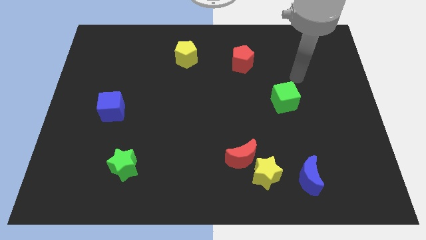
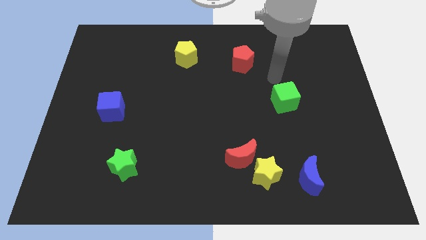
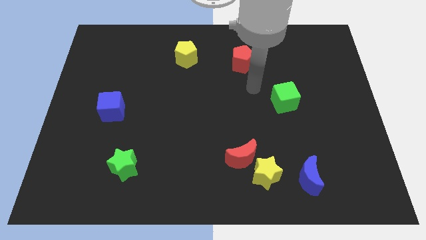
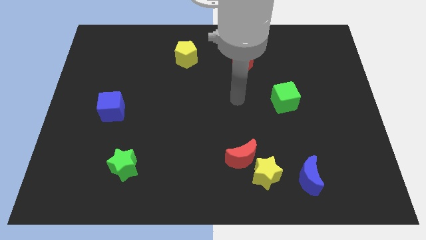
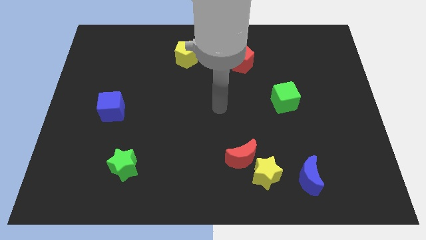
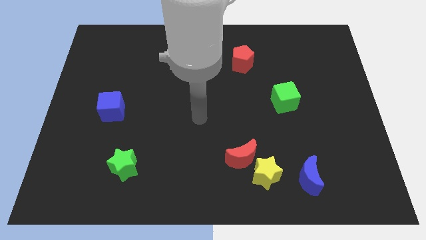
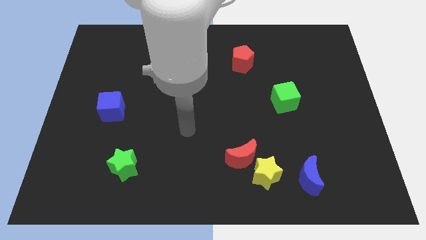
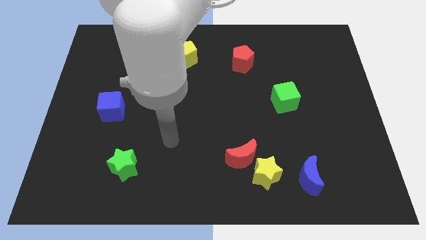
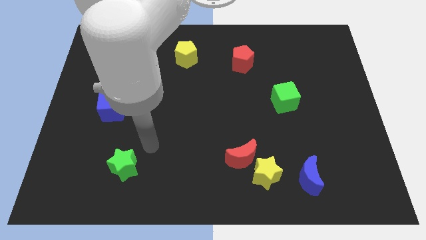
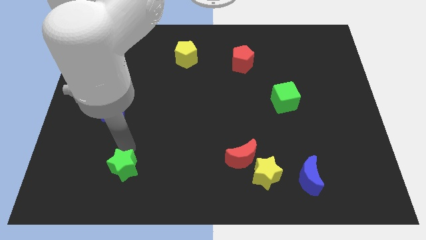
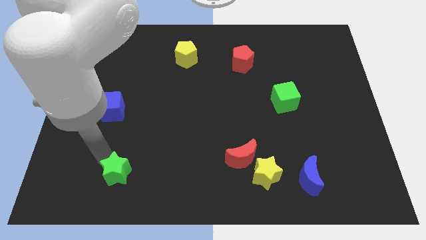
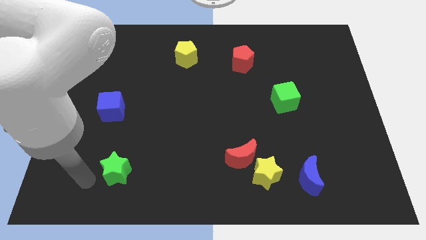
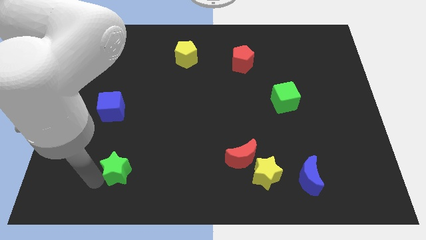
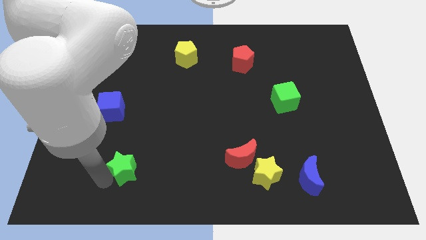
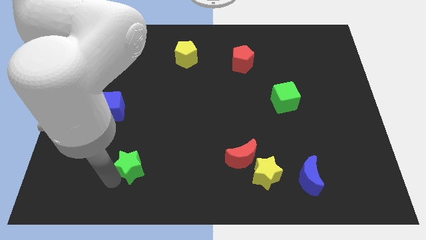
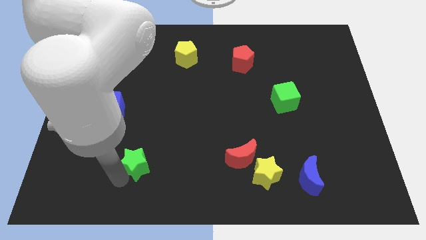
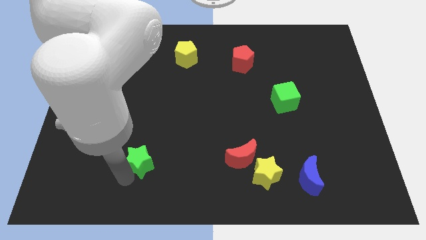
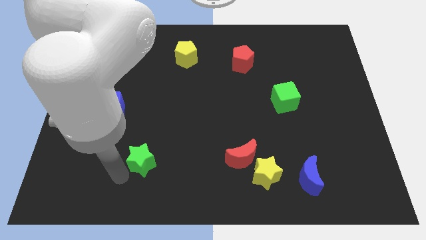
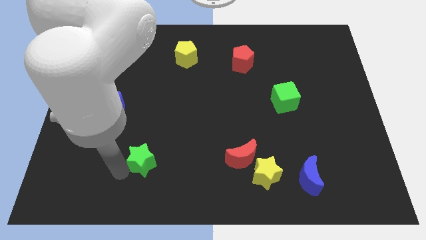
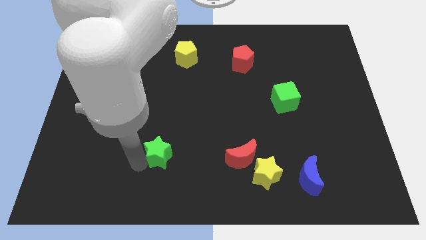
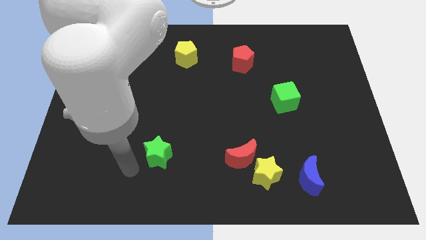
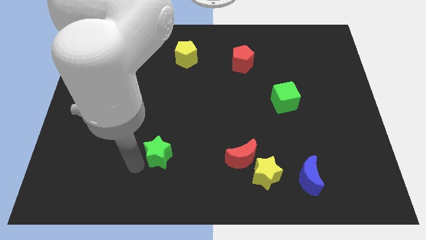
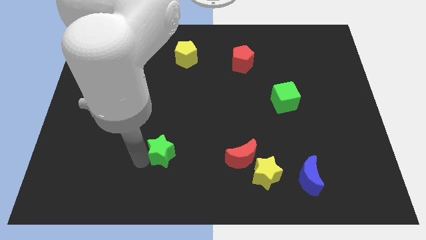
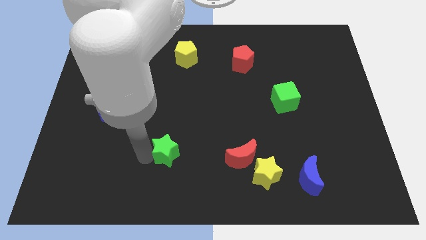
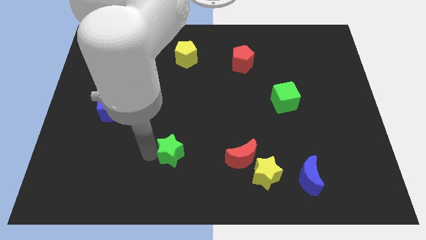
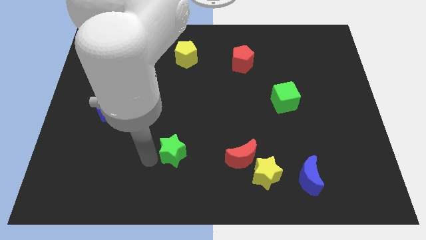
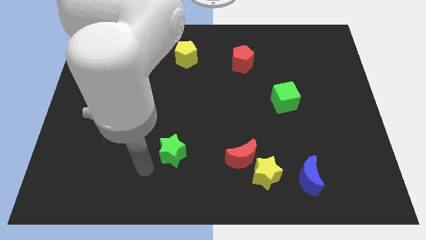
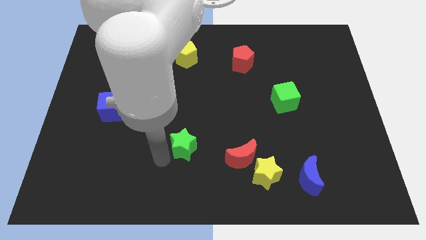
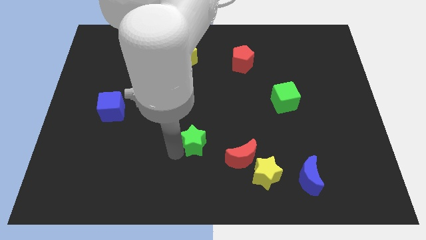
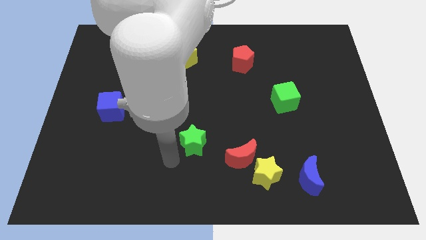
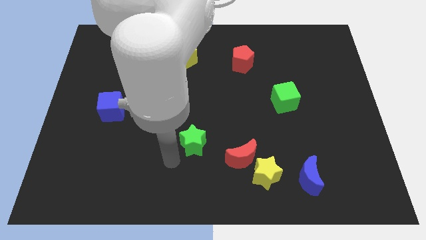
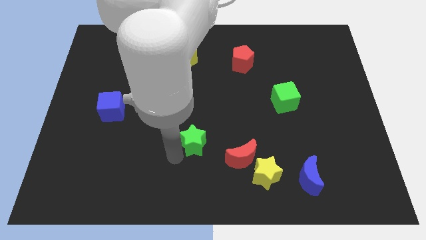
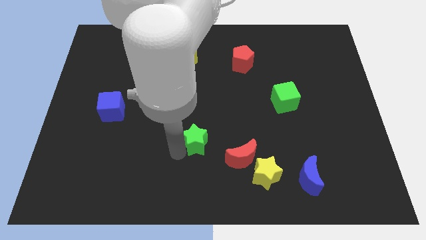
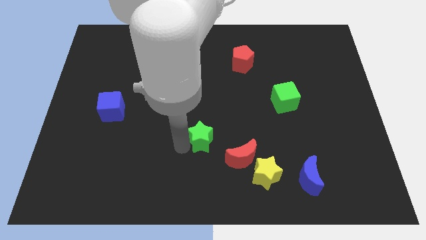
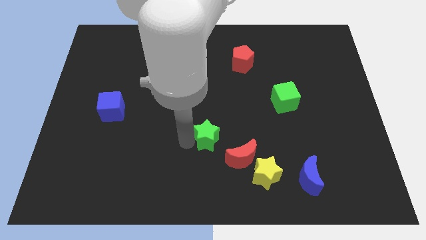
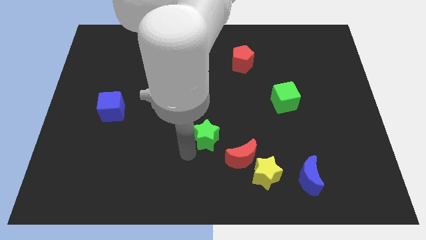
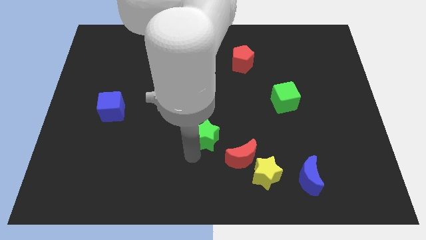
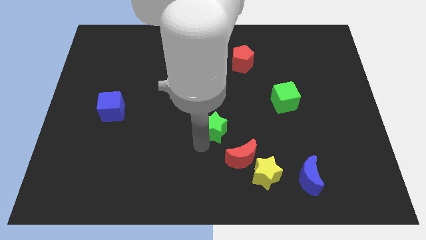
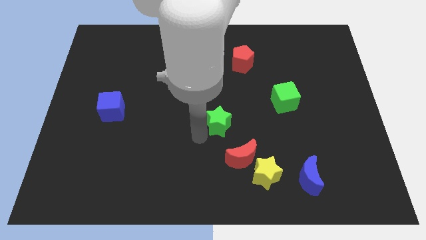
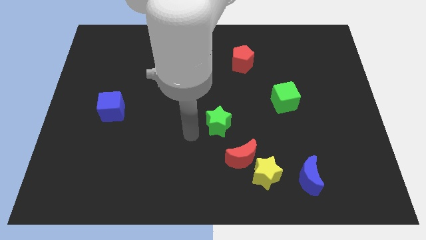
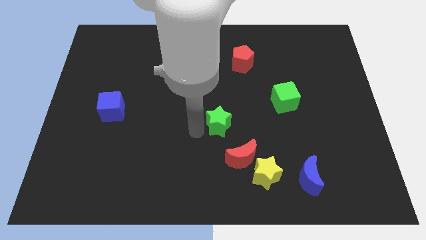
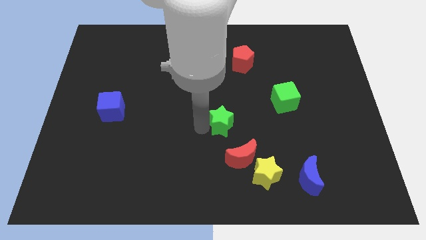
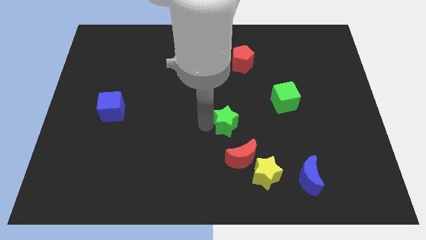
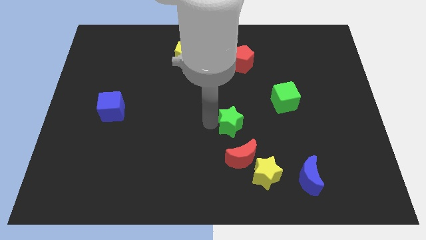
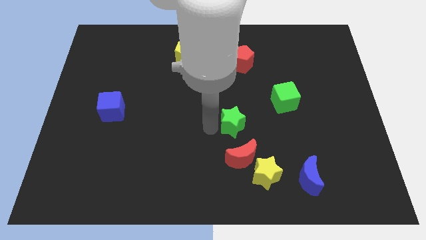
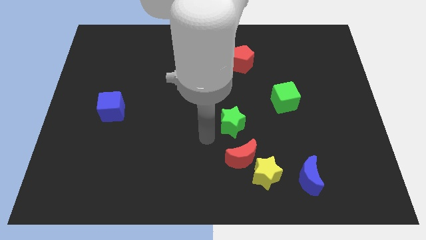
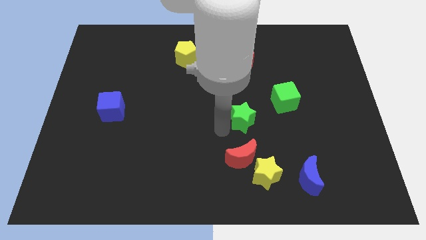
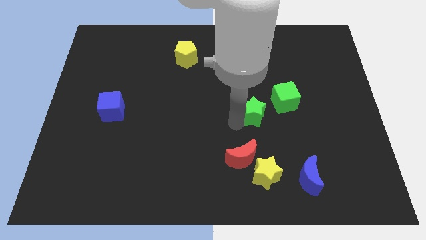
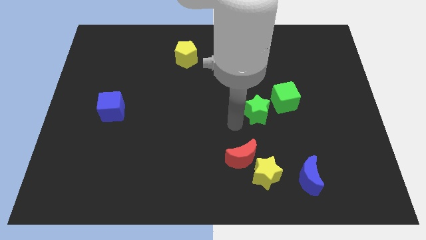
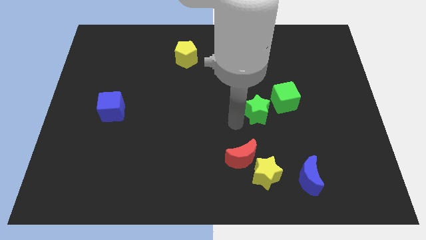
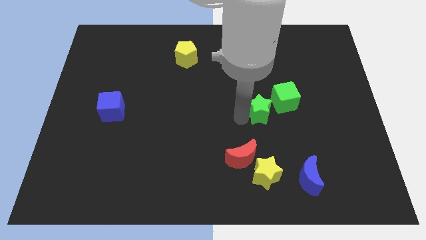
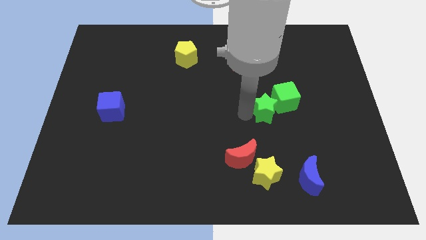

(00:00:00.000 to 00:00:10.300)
move the green star towards the green cube

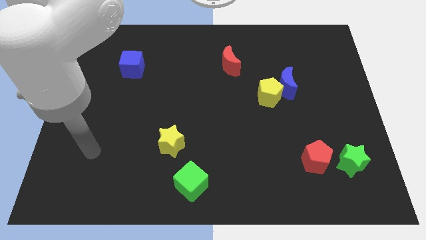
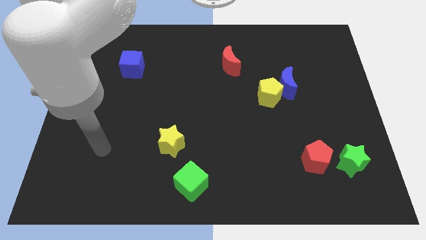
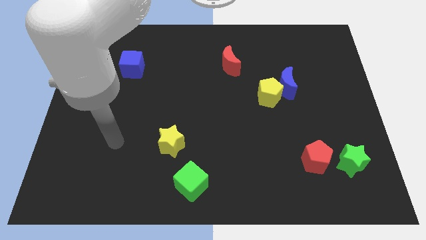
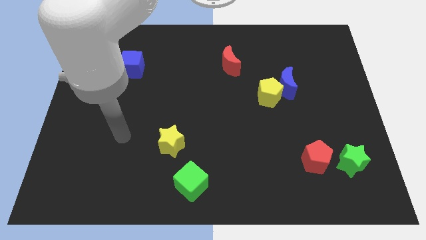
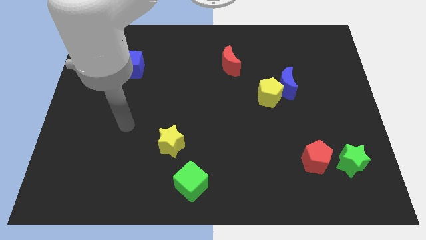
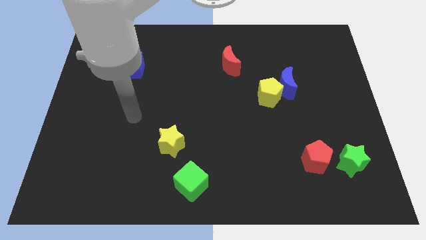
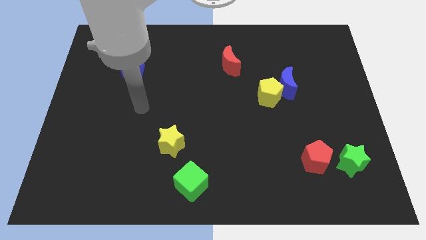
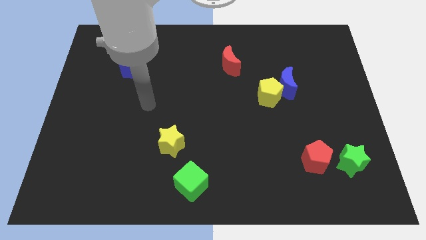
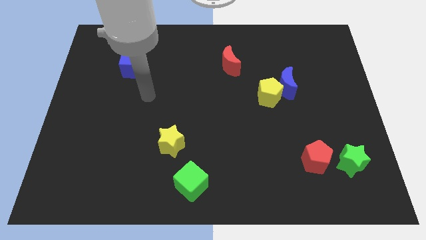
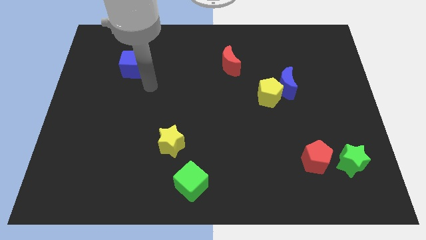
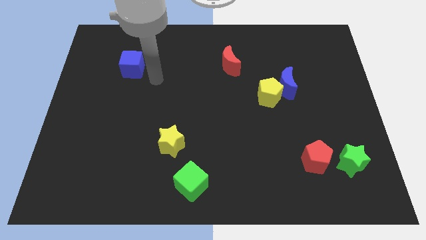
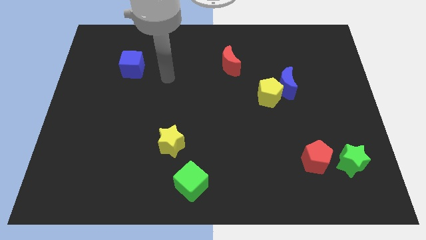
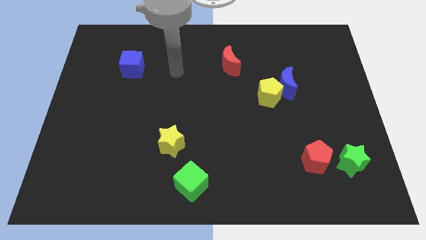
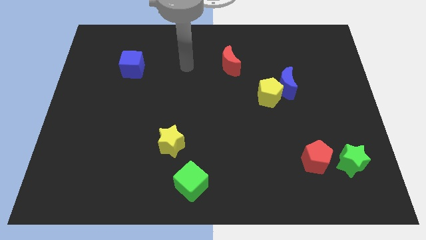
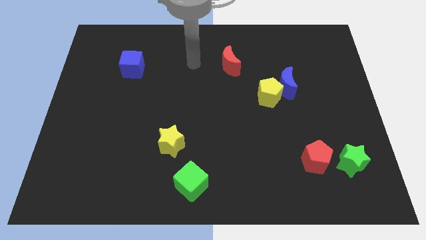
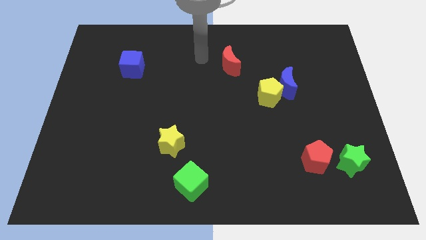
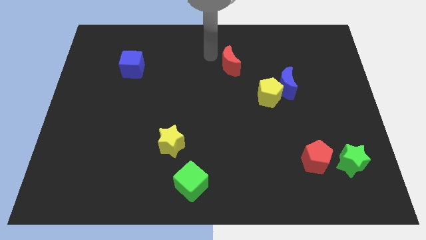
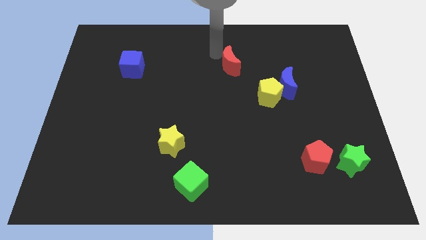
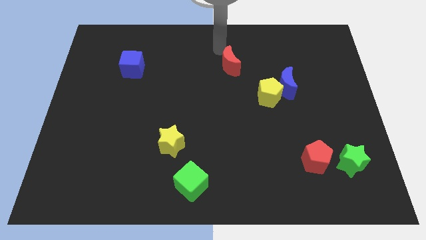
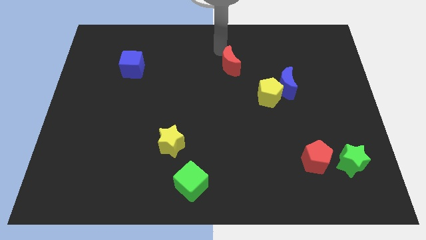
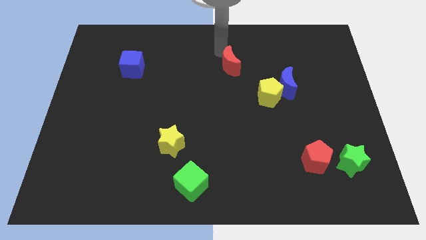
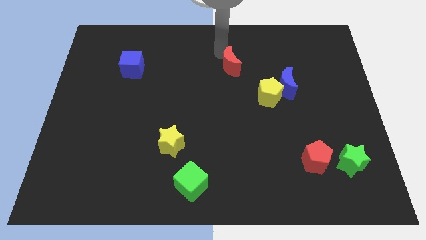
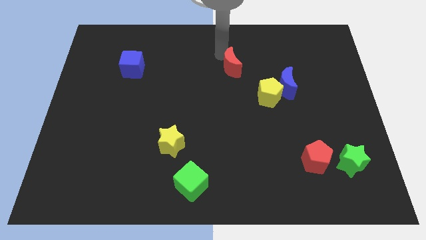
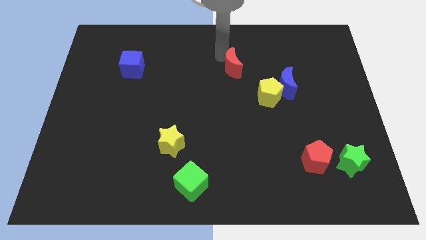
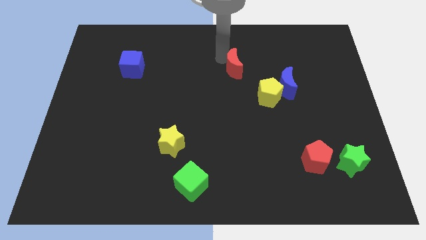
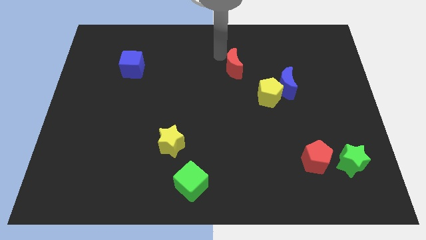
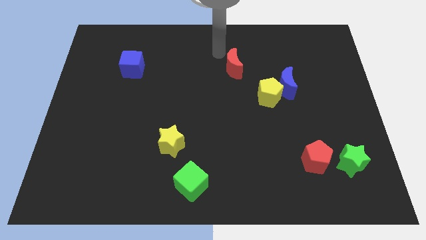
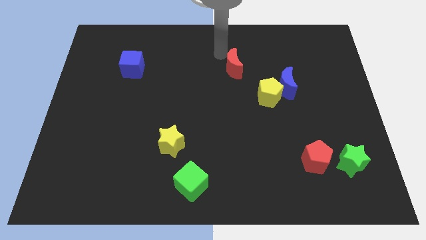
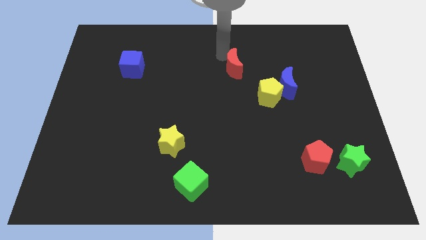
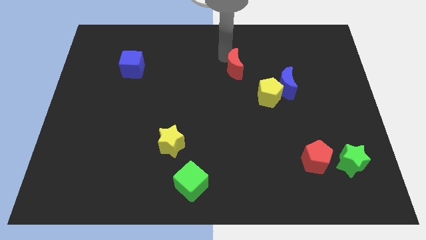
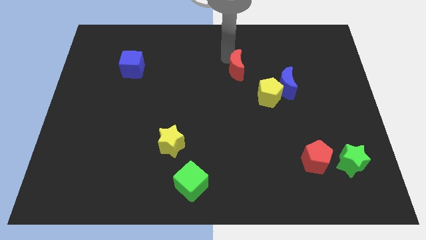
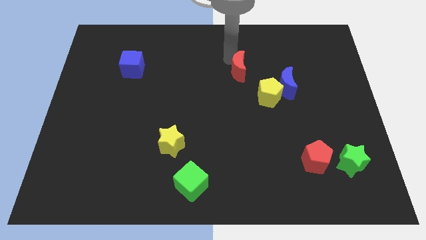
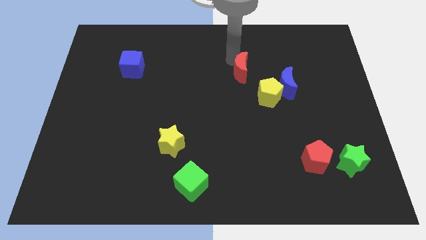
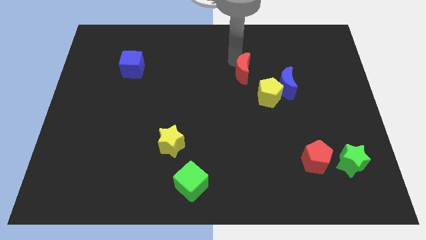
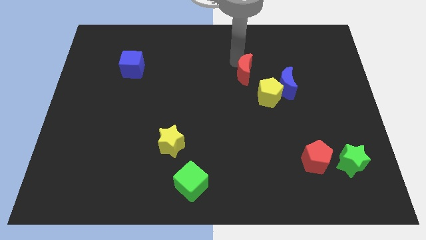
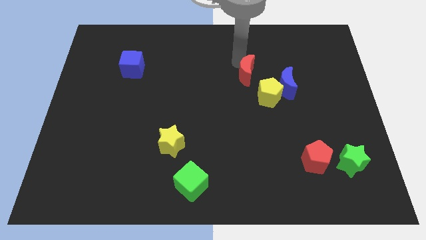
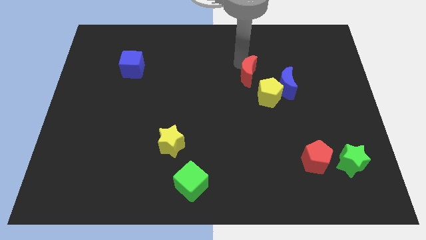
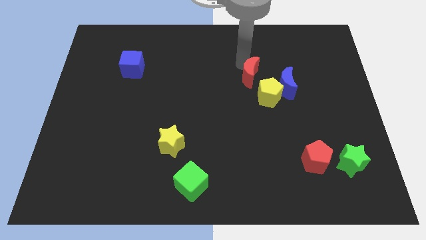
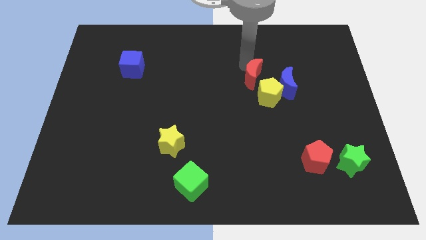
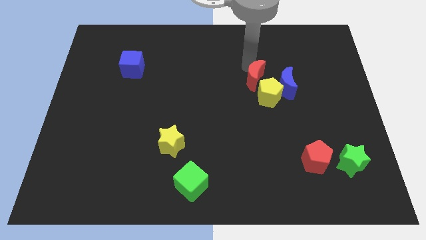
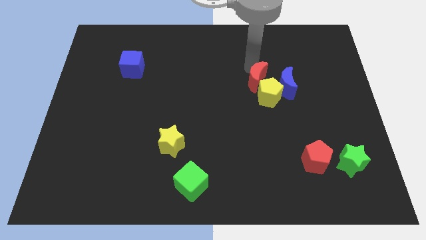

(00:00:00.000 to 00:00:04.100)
move the red moon next to the yellow pentagon
